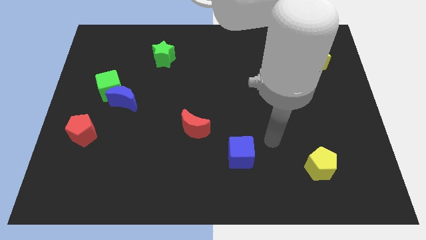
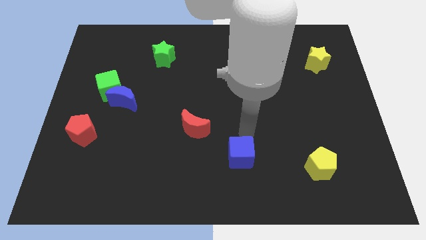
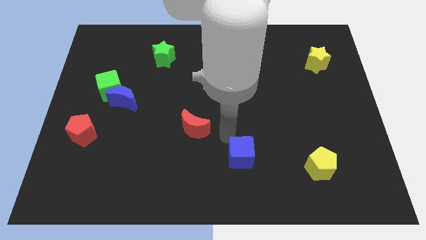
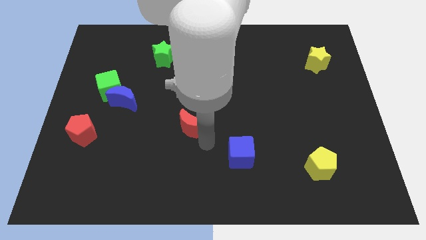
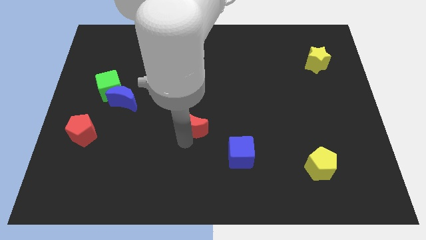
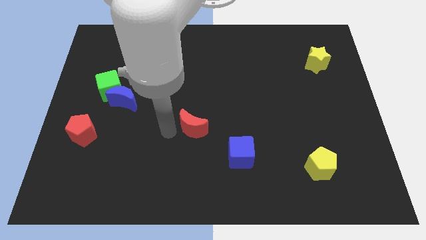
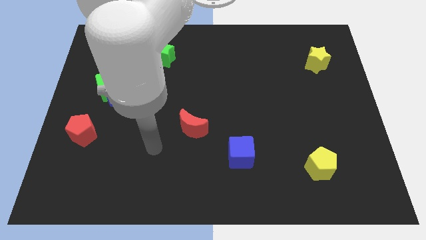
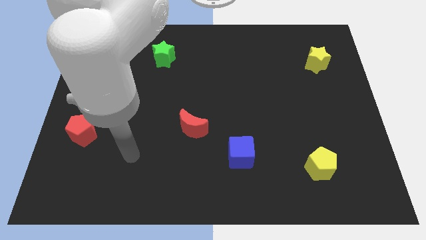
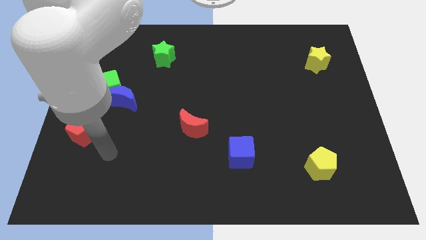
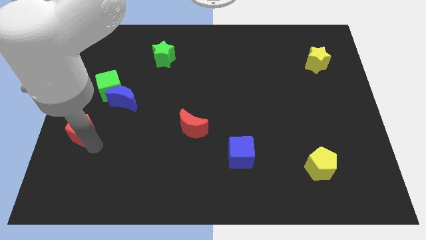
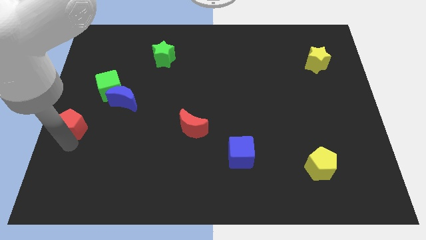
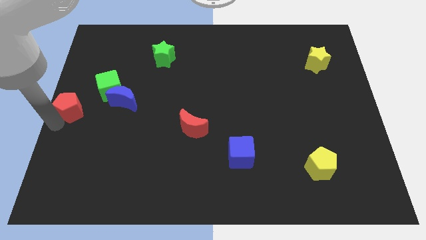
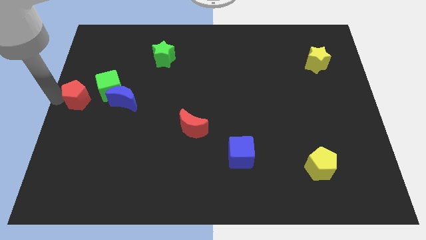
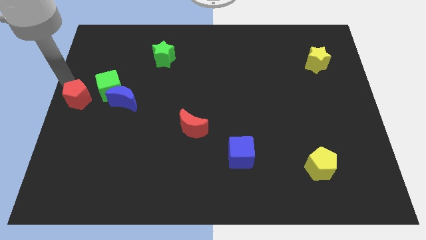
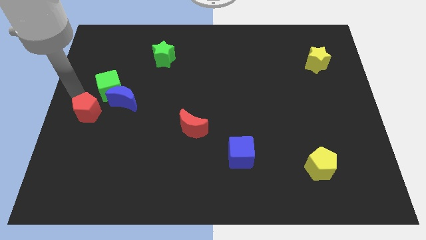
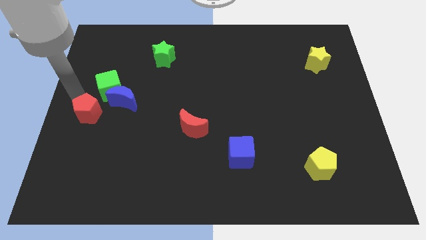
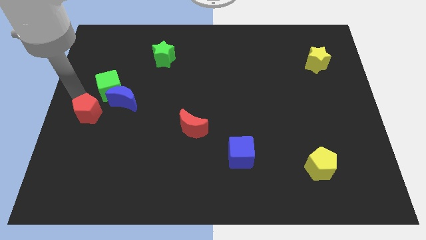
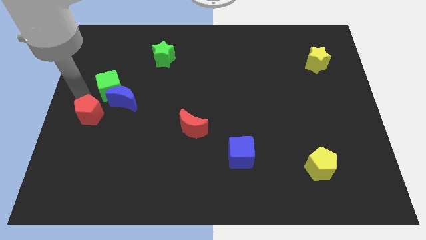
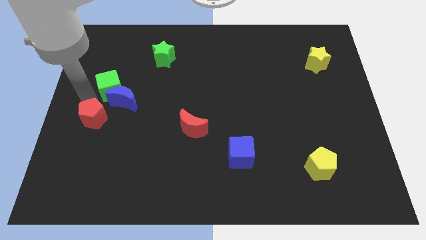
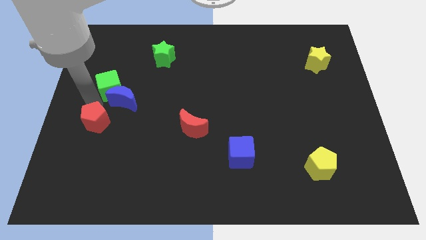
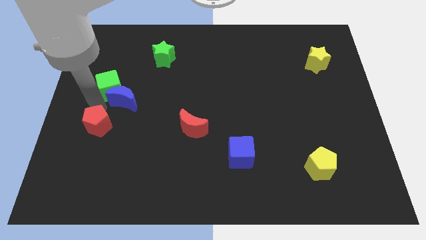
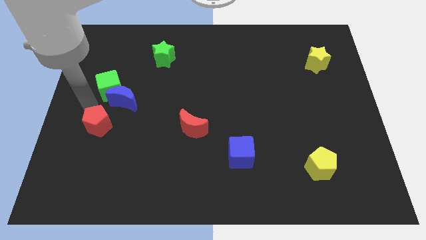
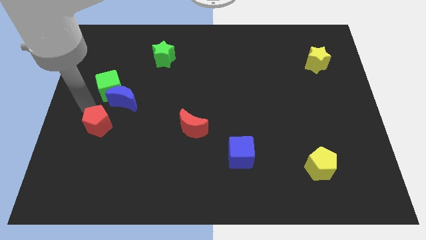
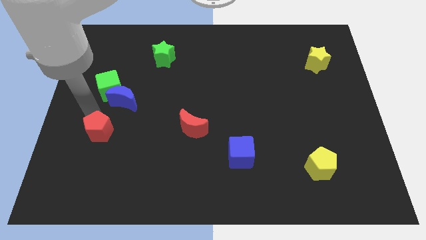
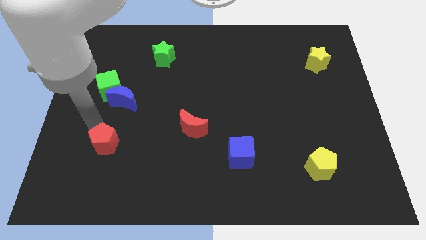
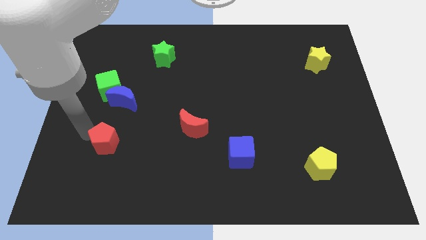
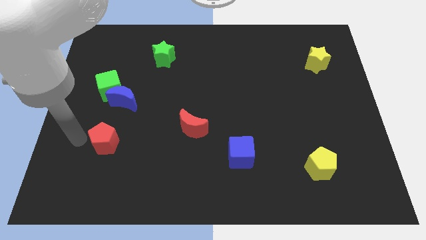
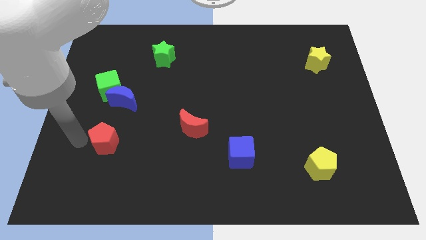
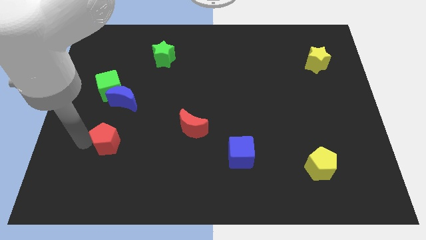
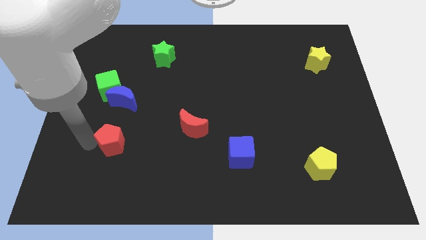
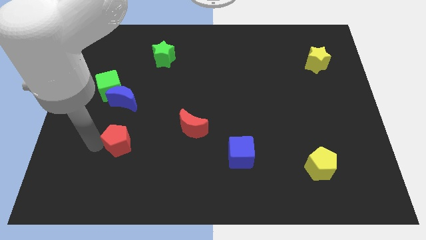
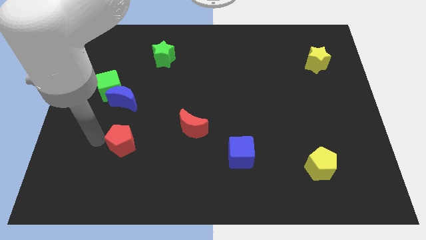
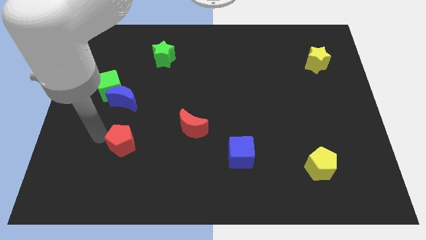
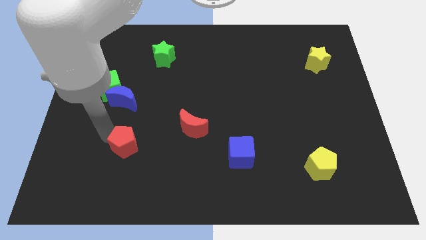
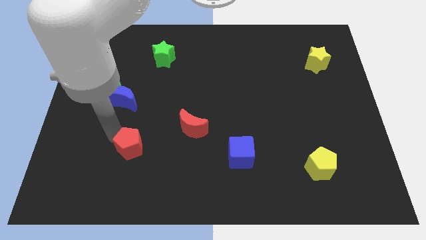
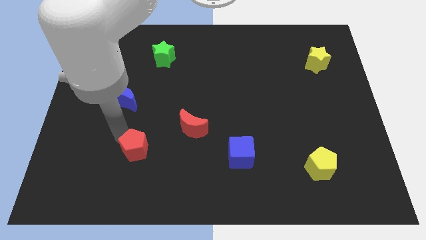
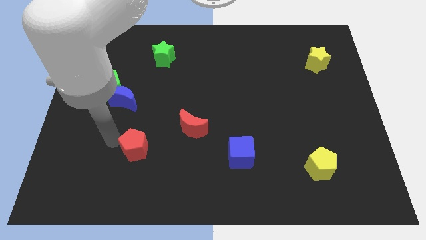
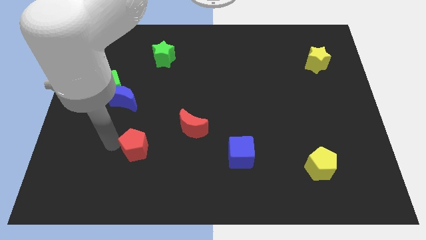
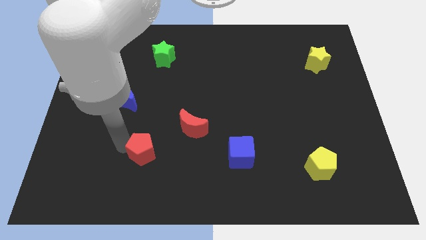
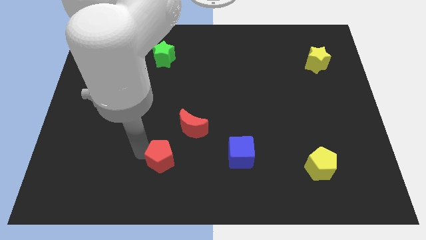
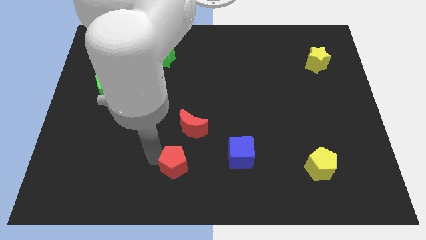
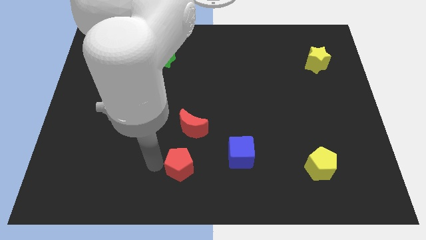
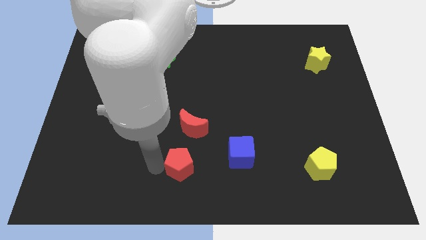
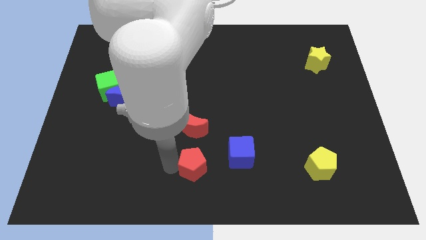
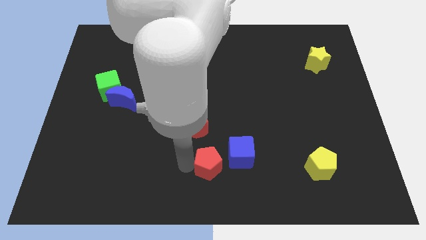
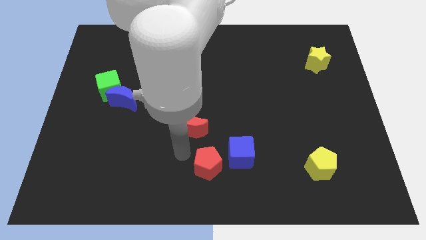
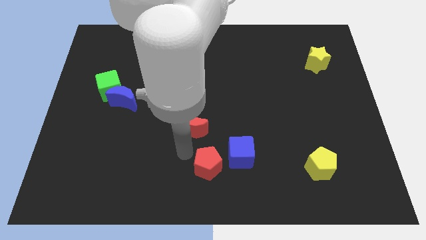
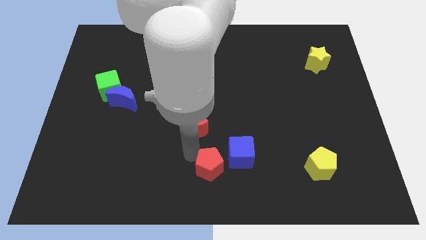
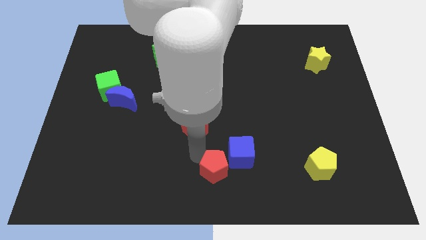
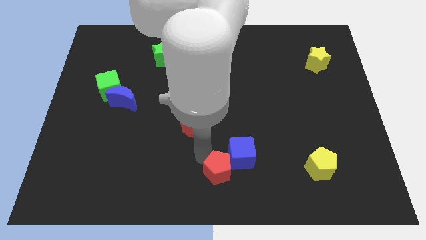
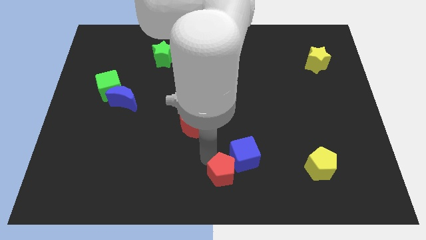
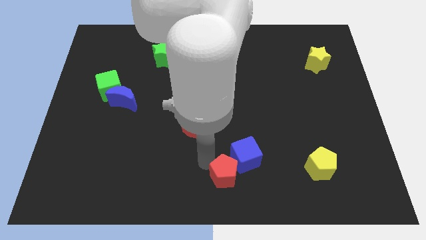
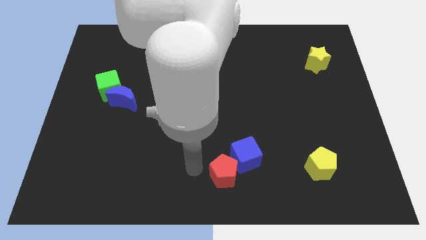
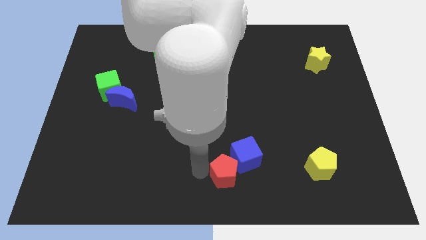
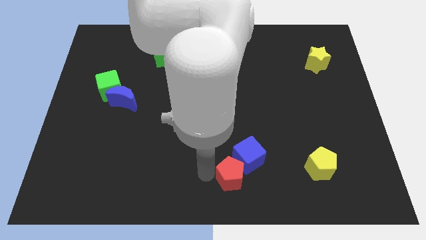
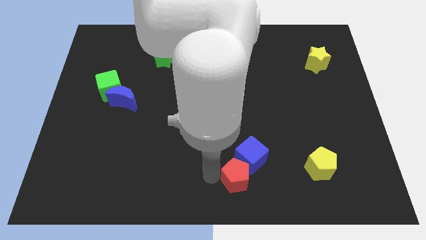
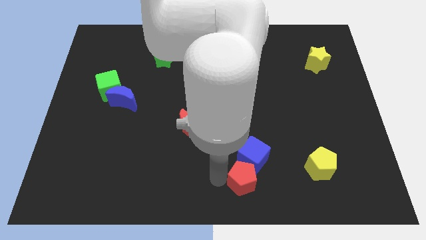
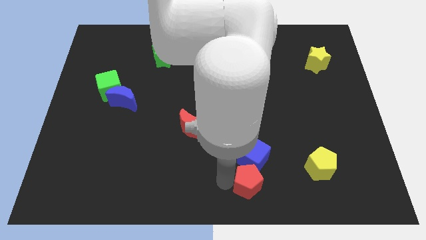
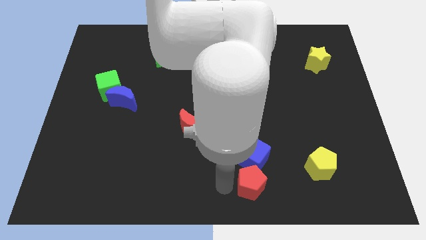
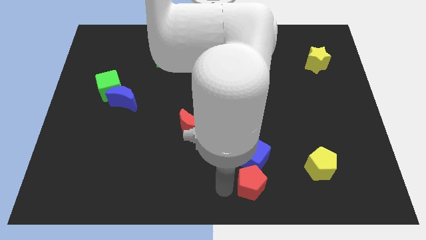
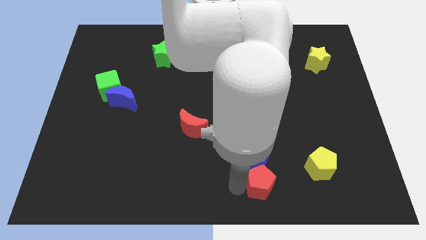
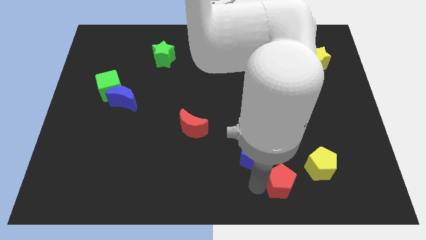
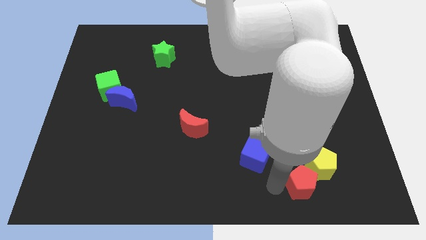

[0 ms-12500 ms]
put the red pentagon towards the yellow pentagon
